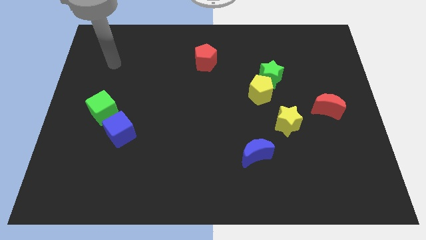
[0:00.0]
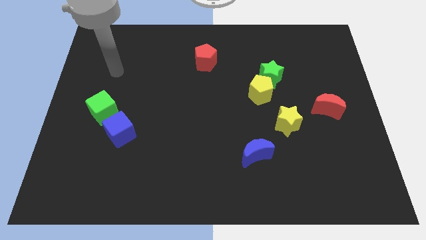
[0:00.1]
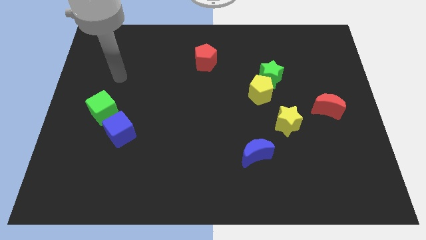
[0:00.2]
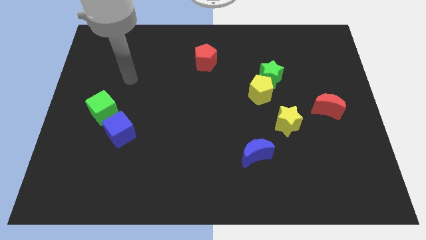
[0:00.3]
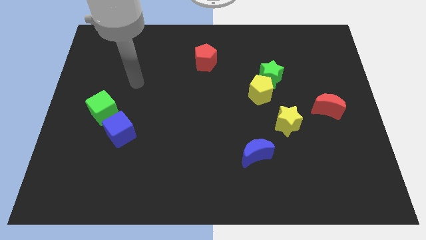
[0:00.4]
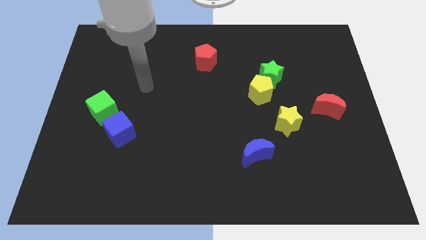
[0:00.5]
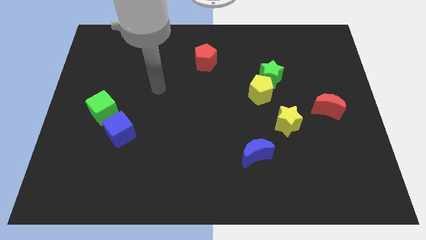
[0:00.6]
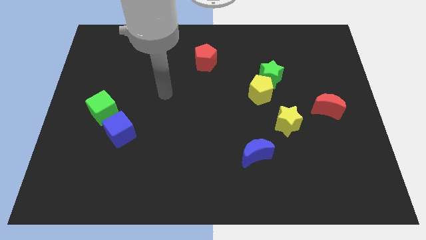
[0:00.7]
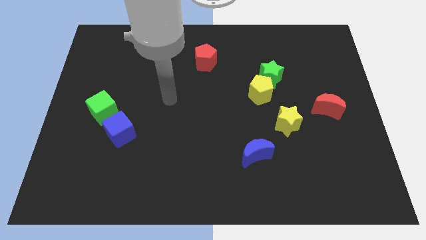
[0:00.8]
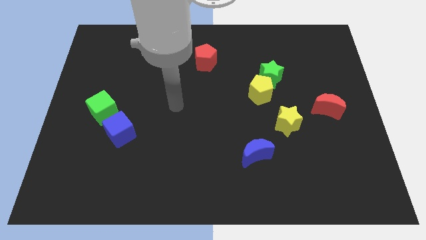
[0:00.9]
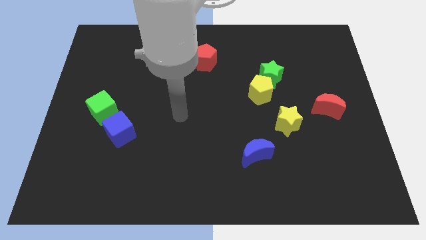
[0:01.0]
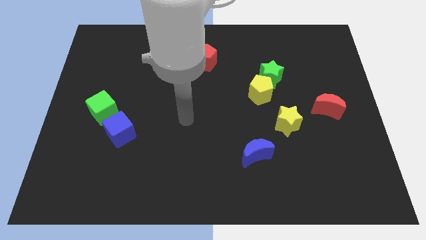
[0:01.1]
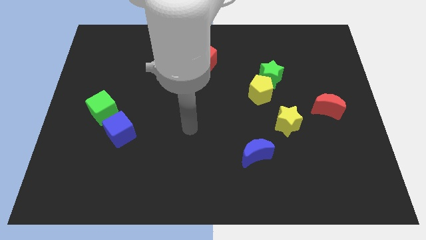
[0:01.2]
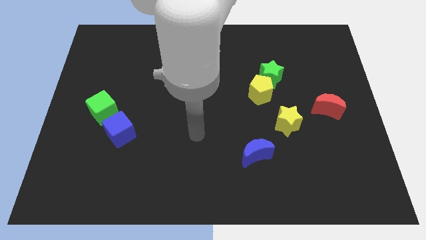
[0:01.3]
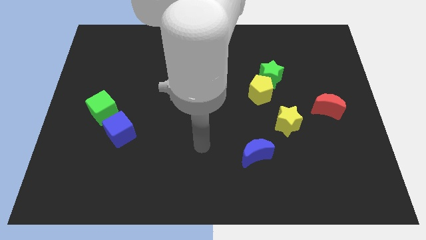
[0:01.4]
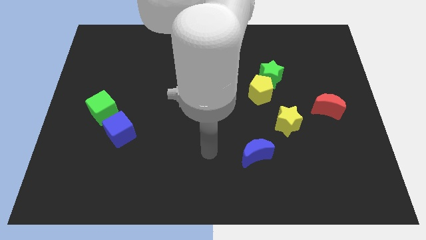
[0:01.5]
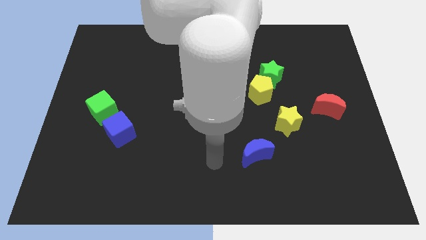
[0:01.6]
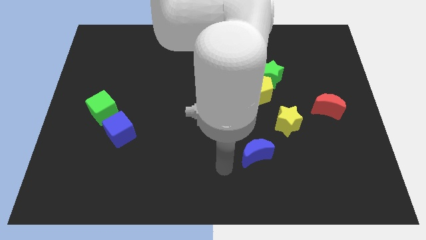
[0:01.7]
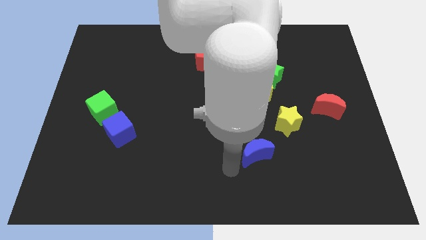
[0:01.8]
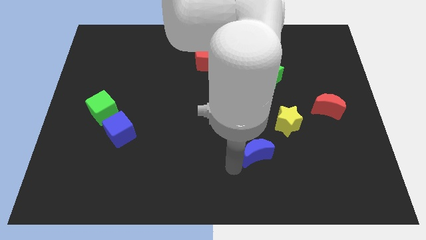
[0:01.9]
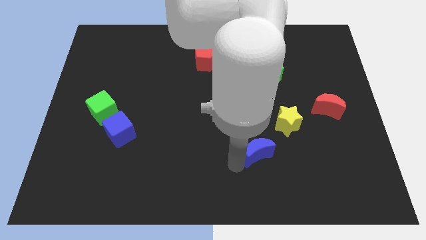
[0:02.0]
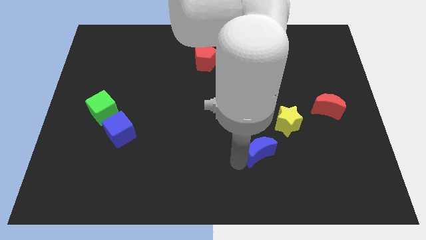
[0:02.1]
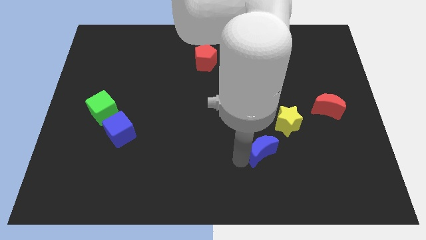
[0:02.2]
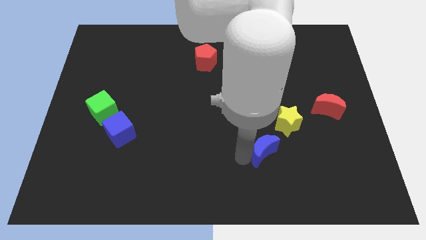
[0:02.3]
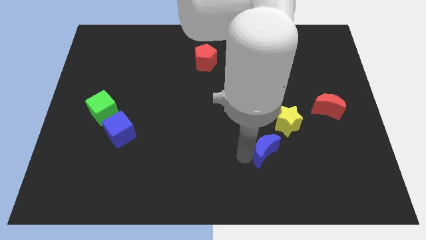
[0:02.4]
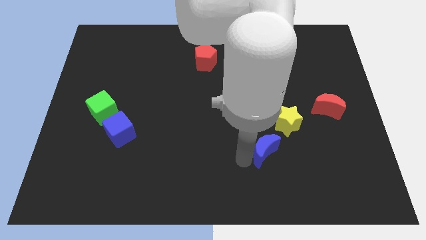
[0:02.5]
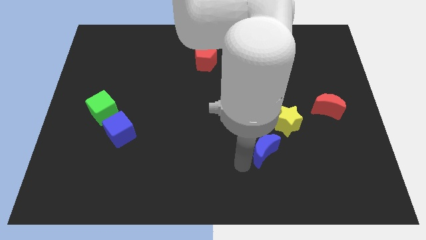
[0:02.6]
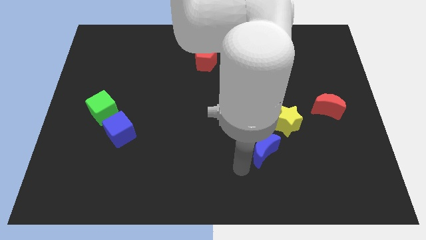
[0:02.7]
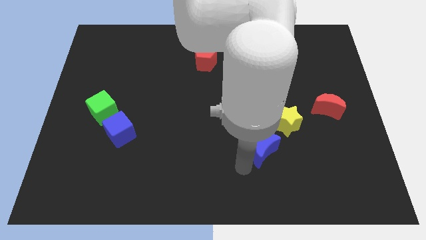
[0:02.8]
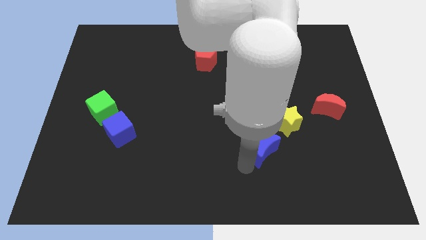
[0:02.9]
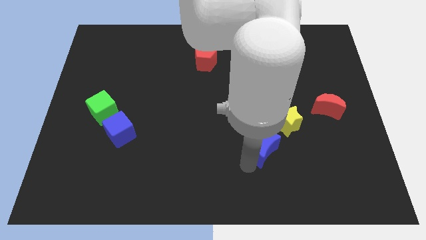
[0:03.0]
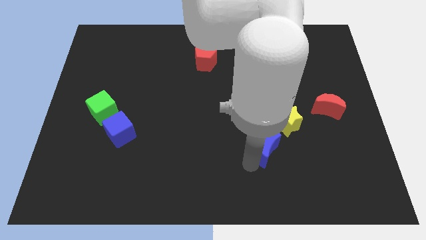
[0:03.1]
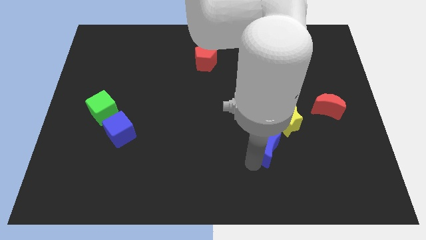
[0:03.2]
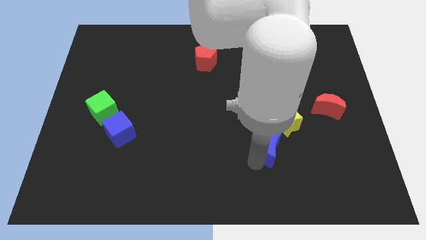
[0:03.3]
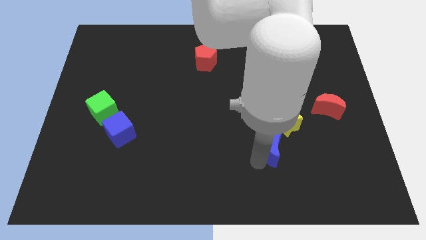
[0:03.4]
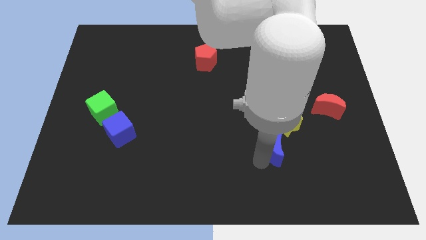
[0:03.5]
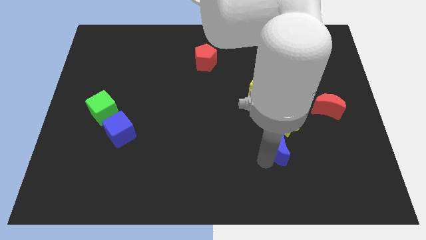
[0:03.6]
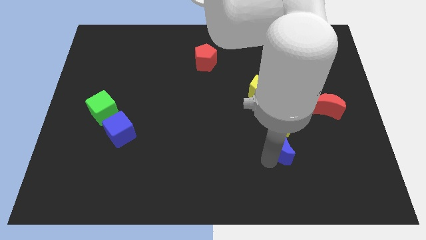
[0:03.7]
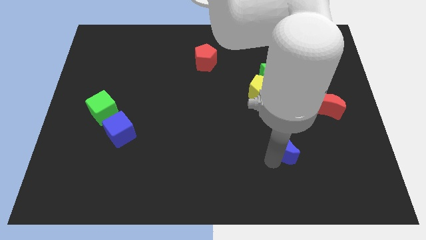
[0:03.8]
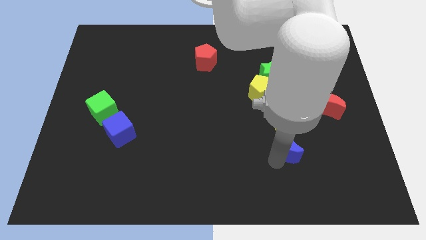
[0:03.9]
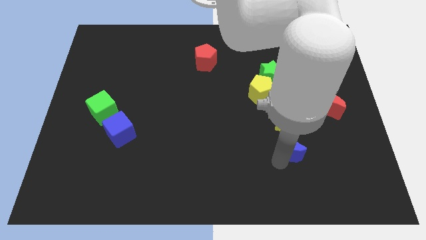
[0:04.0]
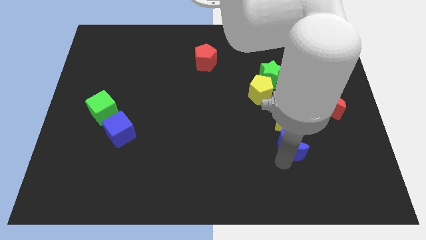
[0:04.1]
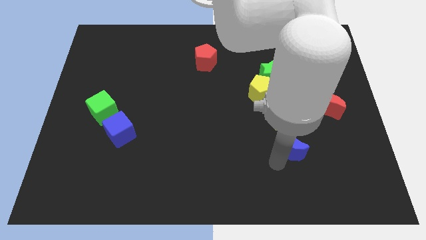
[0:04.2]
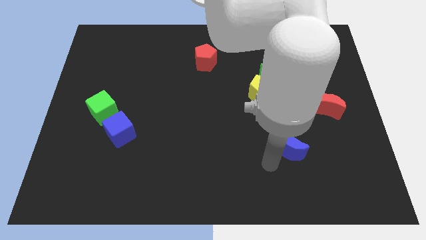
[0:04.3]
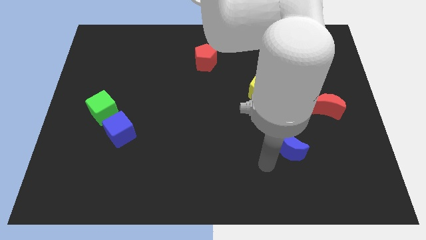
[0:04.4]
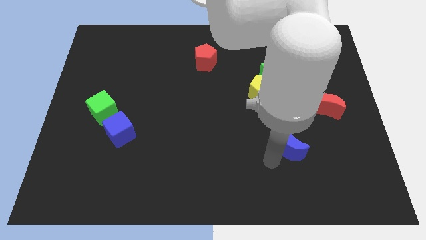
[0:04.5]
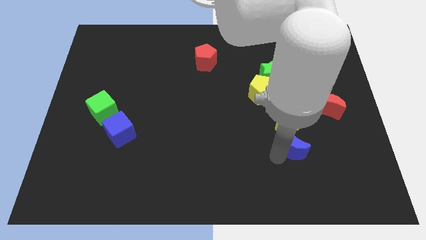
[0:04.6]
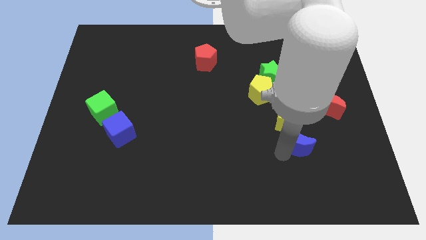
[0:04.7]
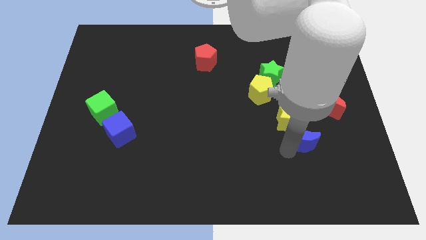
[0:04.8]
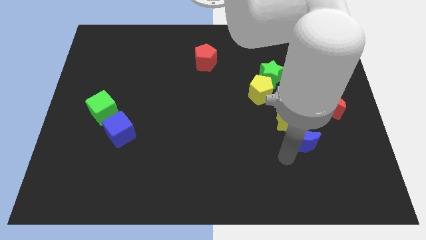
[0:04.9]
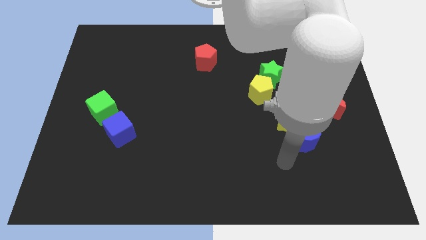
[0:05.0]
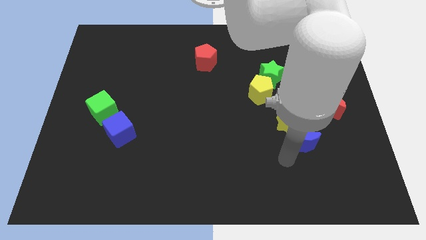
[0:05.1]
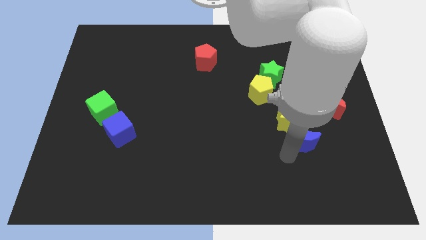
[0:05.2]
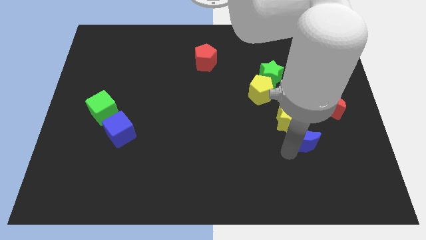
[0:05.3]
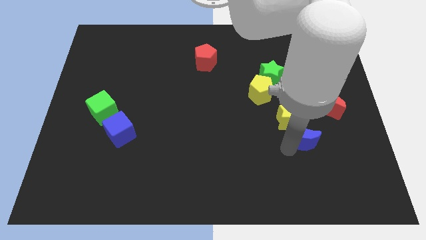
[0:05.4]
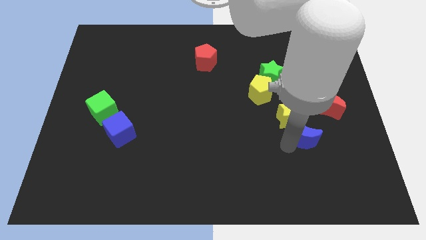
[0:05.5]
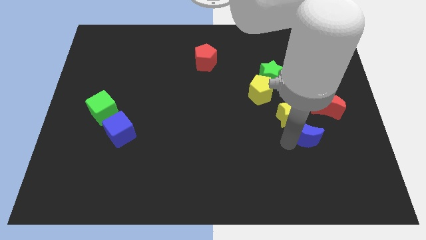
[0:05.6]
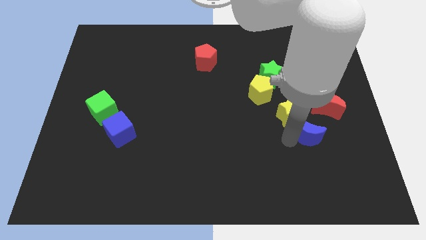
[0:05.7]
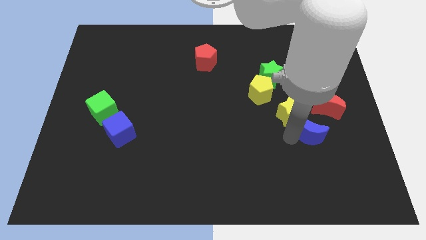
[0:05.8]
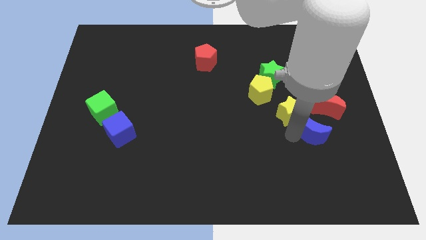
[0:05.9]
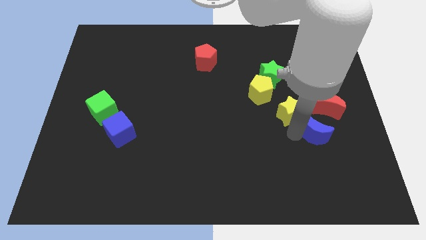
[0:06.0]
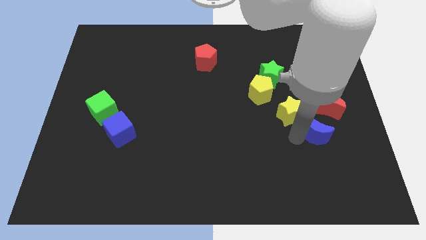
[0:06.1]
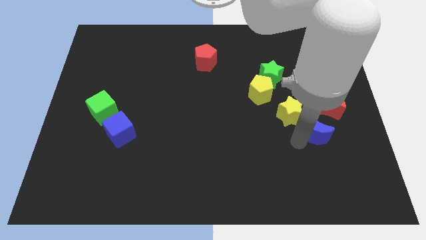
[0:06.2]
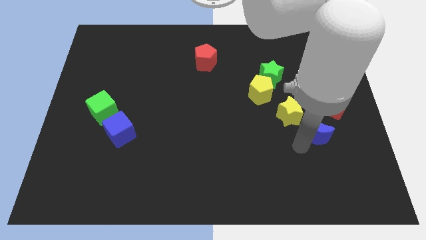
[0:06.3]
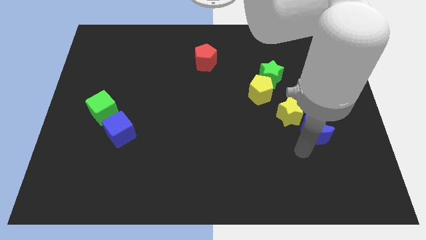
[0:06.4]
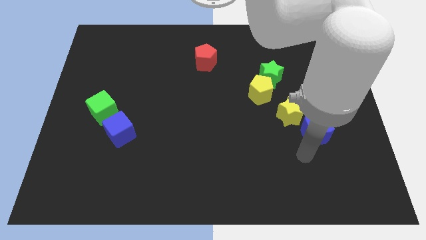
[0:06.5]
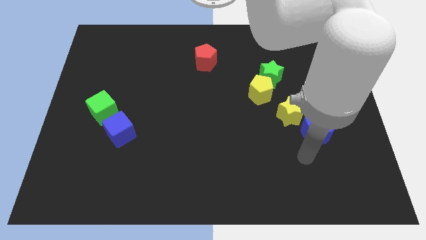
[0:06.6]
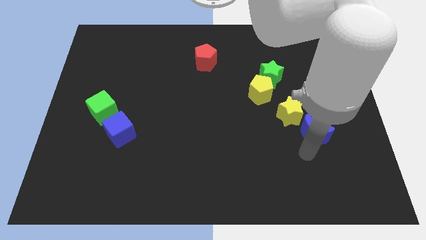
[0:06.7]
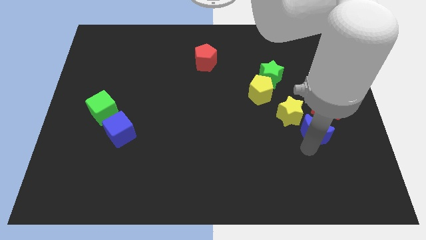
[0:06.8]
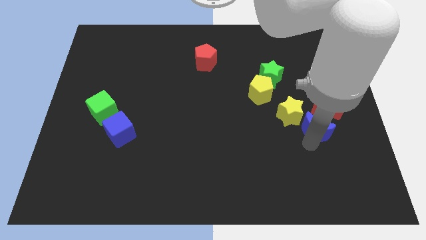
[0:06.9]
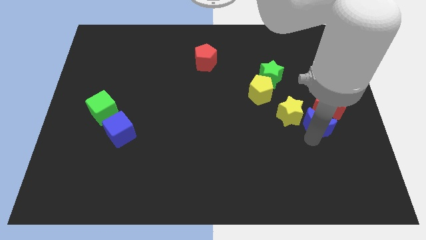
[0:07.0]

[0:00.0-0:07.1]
move the blue moon towards the red moon

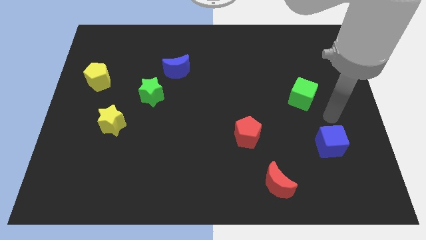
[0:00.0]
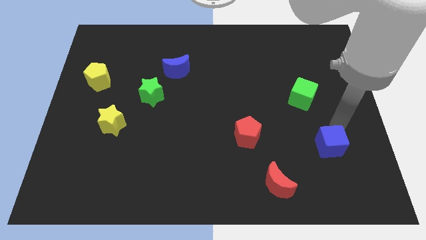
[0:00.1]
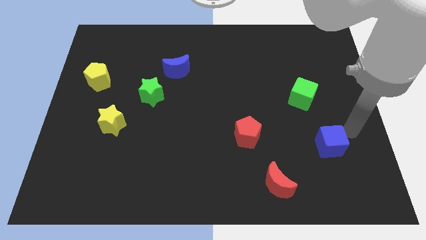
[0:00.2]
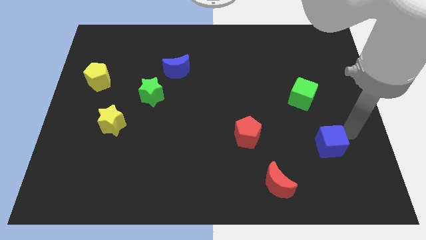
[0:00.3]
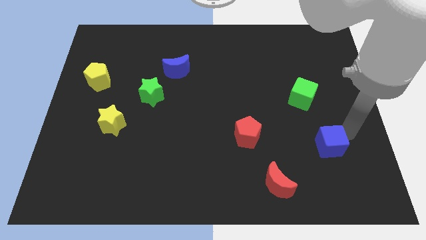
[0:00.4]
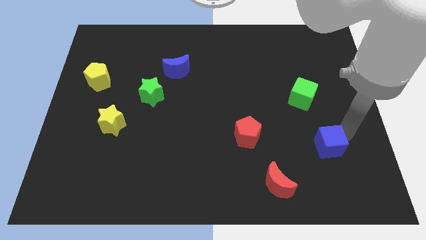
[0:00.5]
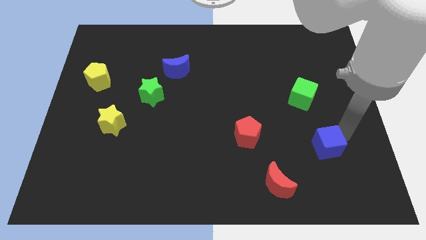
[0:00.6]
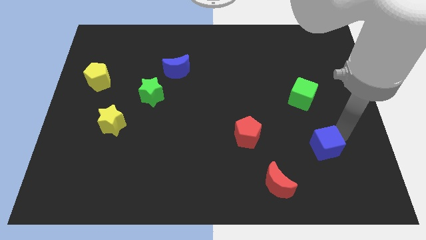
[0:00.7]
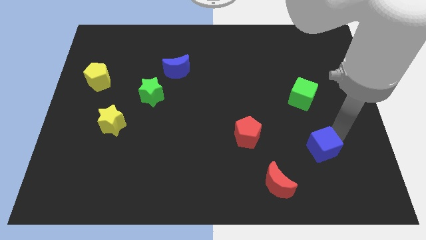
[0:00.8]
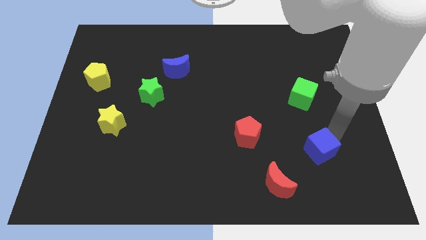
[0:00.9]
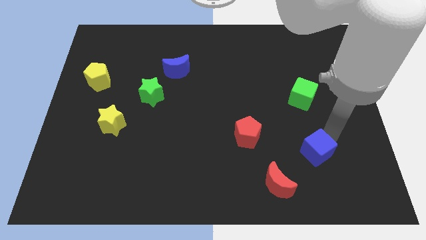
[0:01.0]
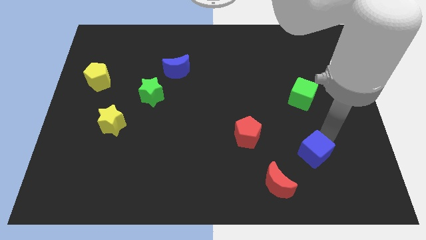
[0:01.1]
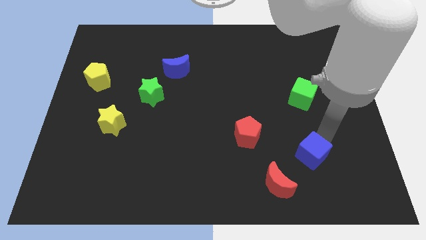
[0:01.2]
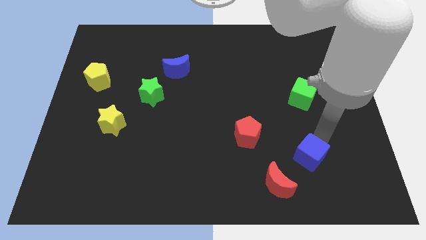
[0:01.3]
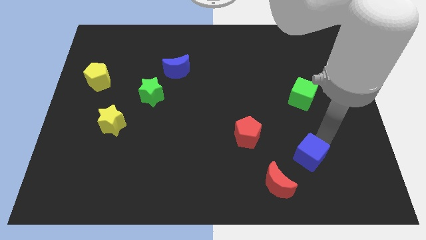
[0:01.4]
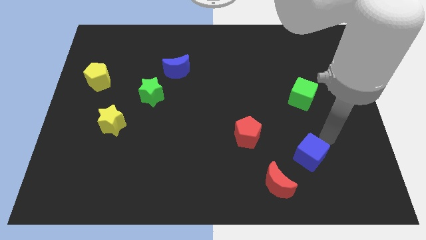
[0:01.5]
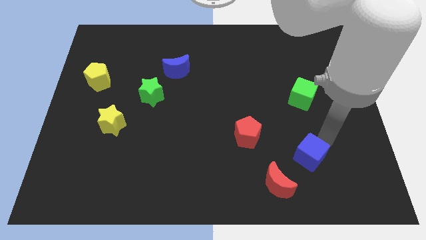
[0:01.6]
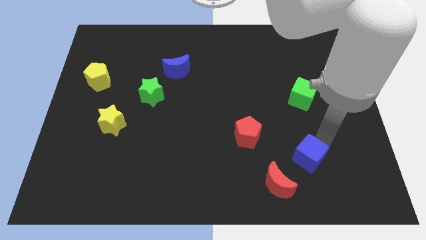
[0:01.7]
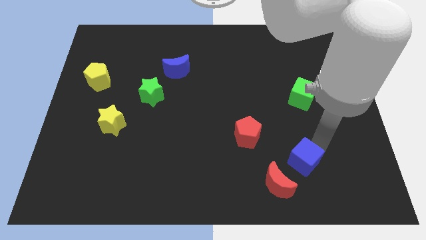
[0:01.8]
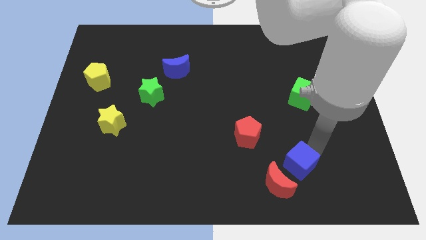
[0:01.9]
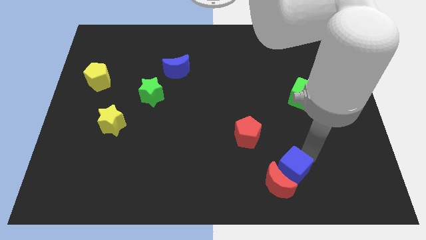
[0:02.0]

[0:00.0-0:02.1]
move the blue cube close to the red moon
